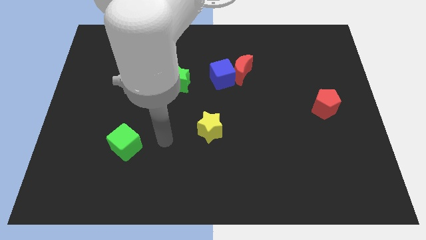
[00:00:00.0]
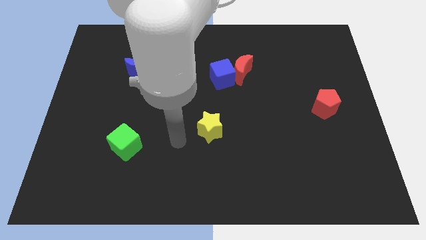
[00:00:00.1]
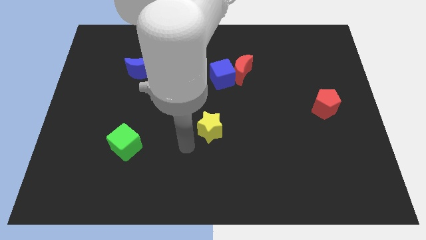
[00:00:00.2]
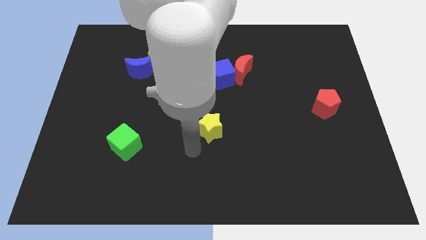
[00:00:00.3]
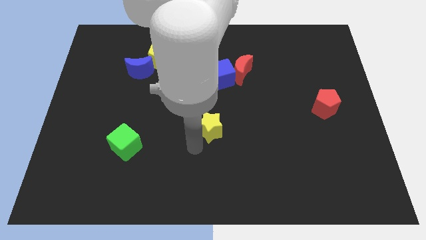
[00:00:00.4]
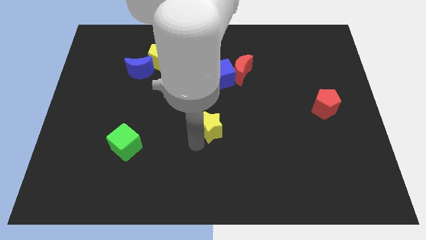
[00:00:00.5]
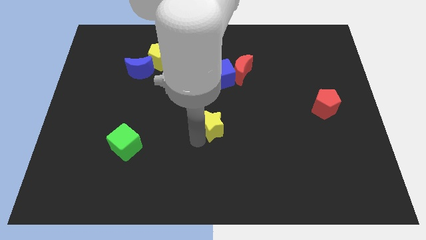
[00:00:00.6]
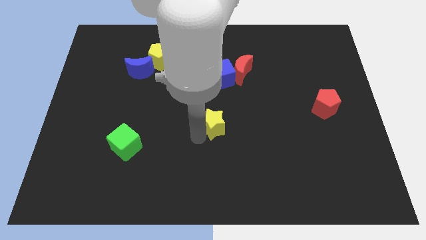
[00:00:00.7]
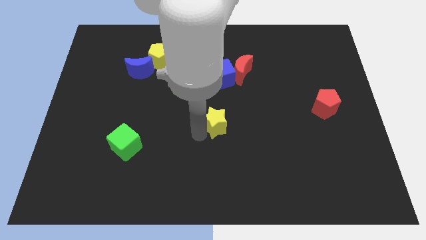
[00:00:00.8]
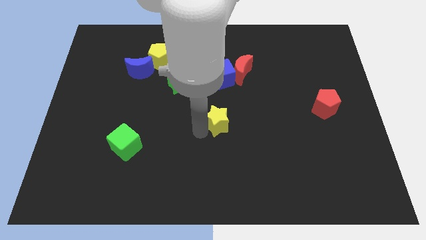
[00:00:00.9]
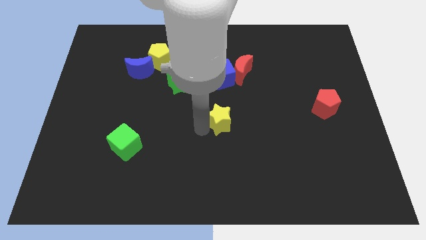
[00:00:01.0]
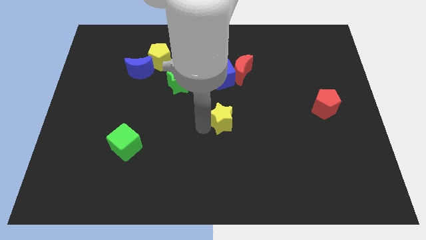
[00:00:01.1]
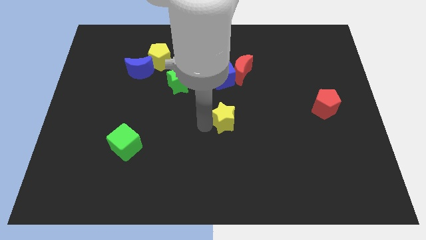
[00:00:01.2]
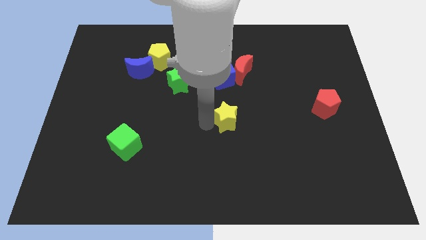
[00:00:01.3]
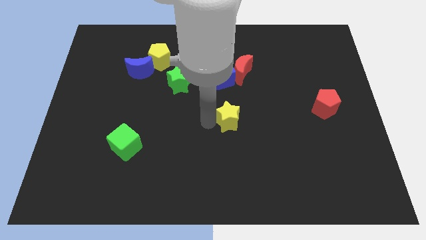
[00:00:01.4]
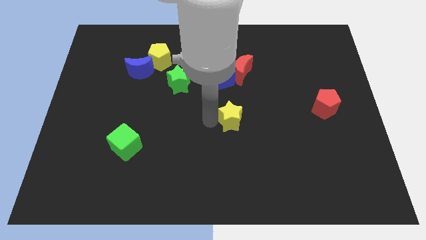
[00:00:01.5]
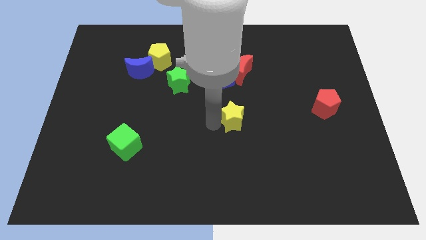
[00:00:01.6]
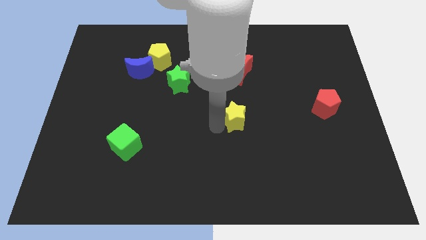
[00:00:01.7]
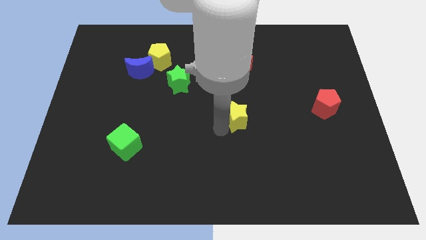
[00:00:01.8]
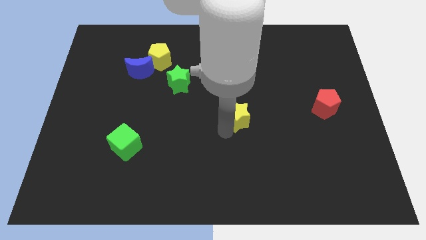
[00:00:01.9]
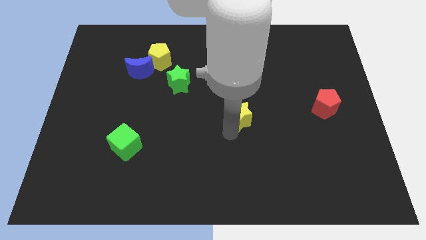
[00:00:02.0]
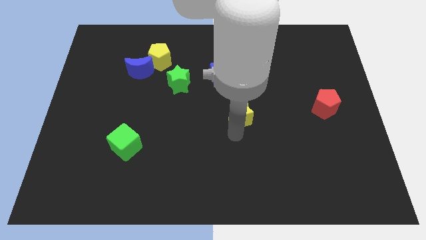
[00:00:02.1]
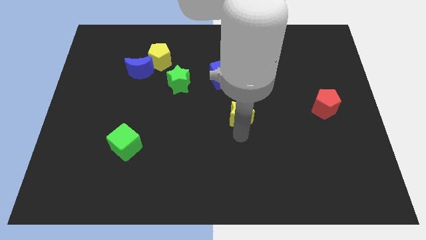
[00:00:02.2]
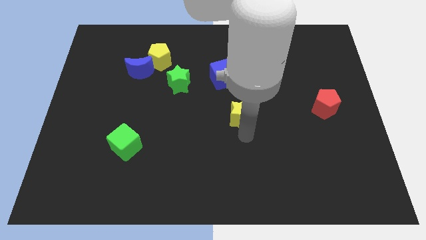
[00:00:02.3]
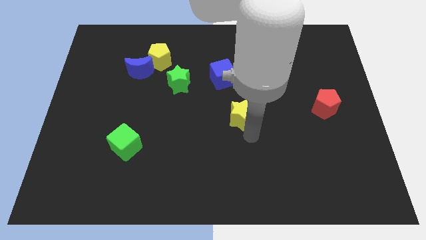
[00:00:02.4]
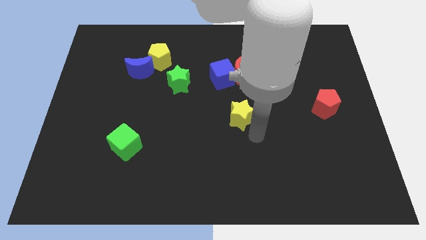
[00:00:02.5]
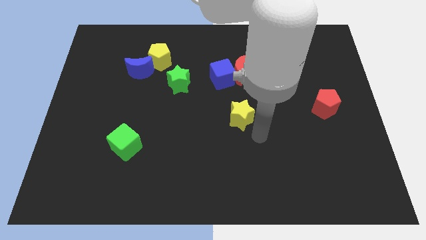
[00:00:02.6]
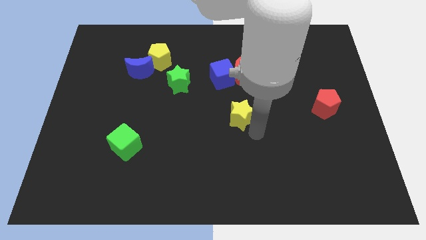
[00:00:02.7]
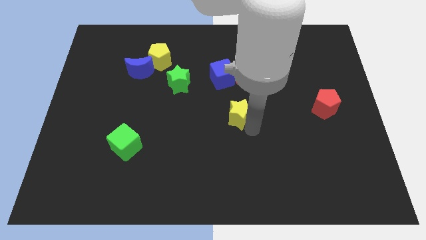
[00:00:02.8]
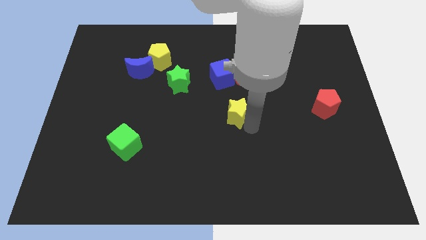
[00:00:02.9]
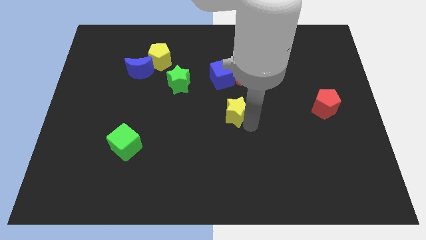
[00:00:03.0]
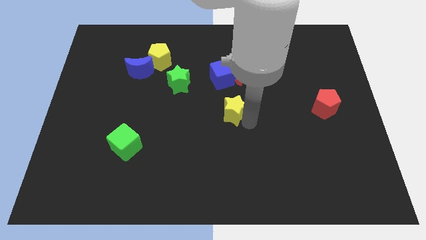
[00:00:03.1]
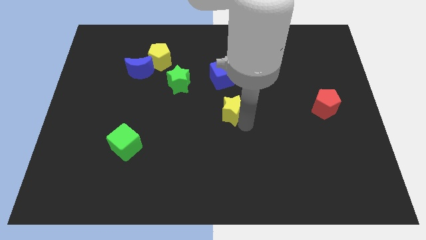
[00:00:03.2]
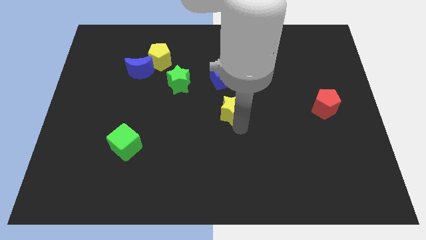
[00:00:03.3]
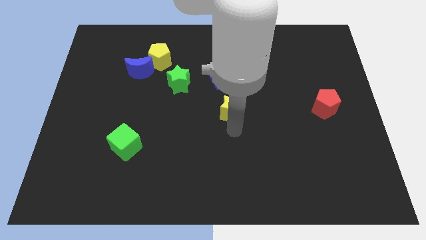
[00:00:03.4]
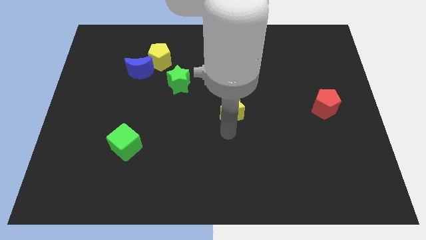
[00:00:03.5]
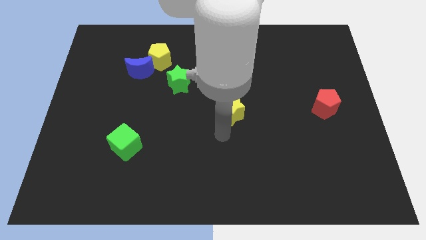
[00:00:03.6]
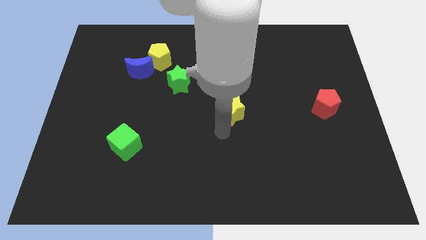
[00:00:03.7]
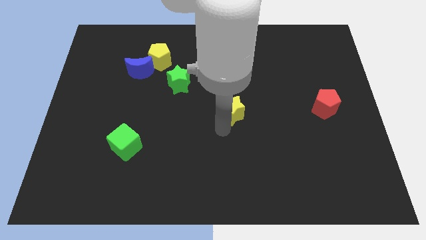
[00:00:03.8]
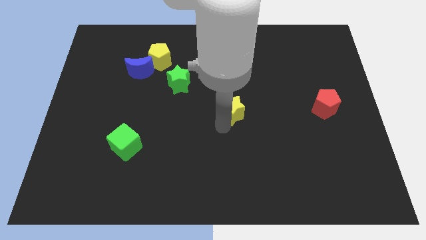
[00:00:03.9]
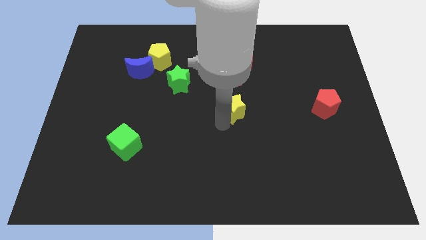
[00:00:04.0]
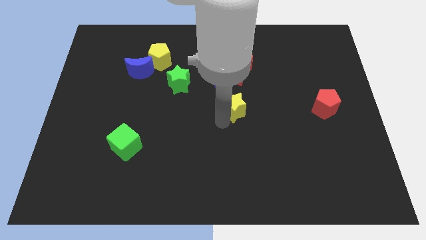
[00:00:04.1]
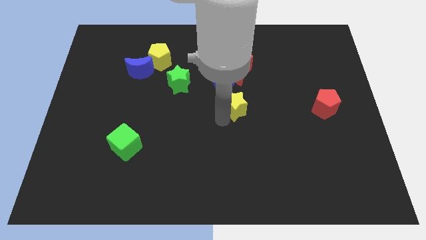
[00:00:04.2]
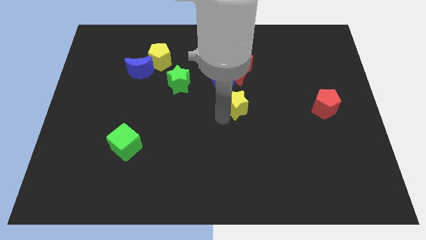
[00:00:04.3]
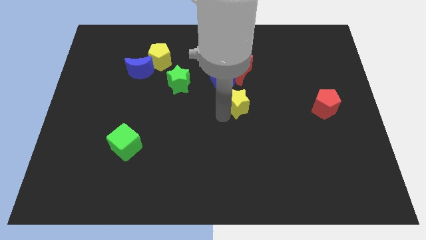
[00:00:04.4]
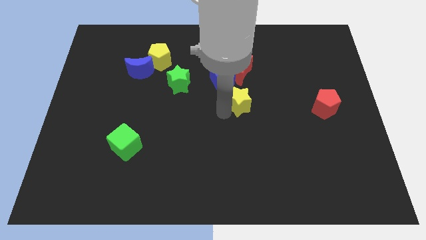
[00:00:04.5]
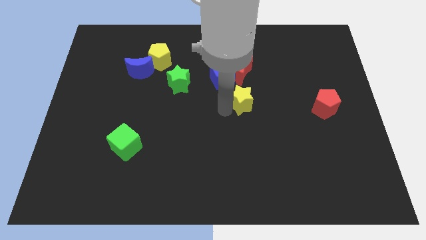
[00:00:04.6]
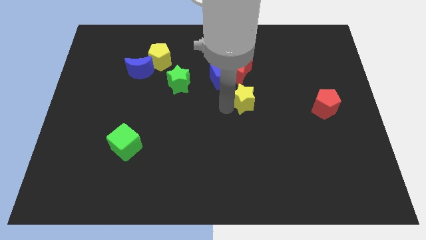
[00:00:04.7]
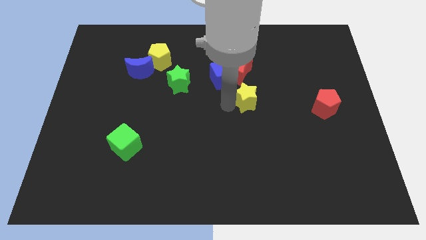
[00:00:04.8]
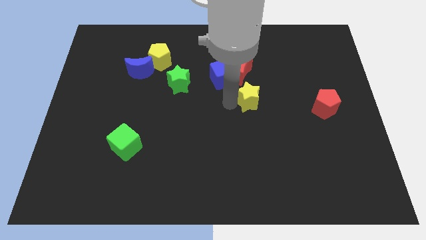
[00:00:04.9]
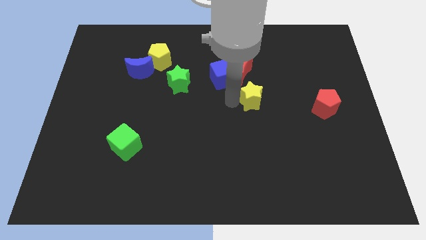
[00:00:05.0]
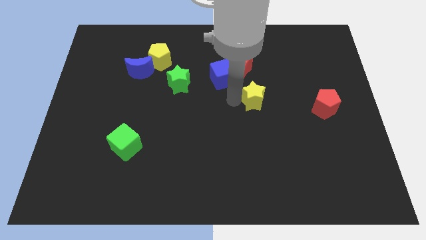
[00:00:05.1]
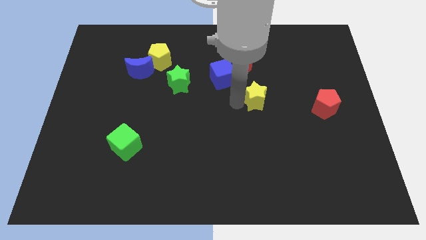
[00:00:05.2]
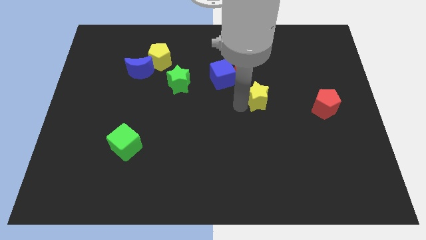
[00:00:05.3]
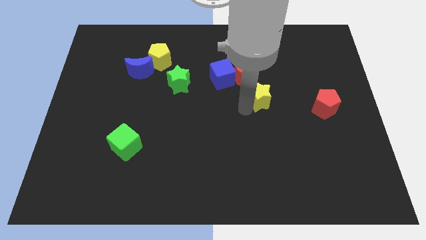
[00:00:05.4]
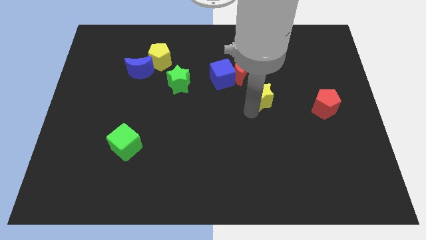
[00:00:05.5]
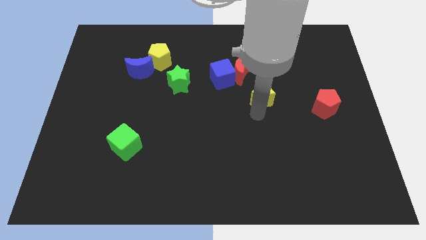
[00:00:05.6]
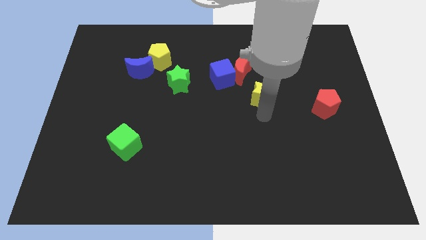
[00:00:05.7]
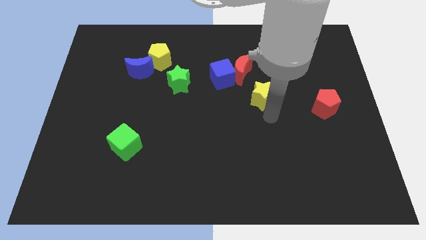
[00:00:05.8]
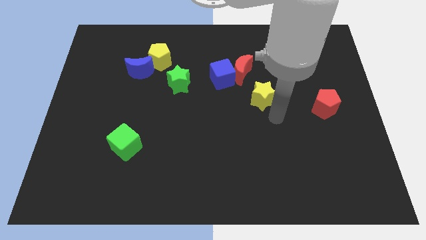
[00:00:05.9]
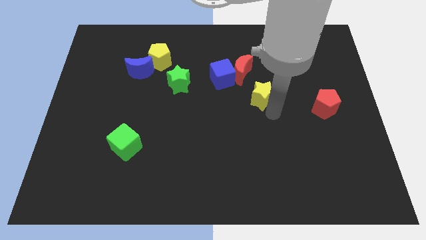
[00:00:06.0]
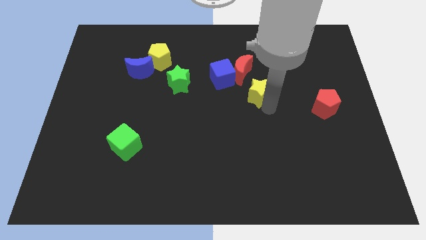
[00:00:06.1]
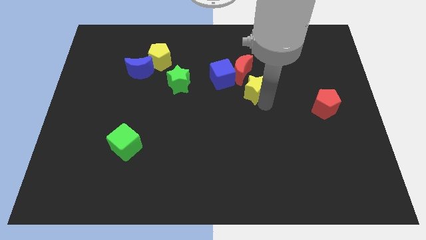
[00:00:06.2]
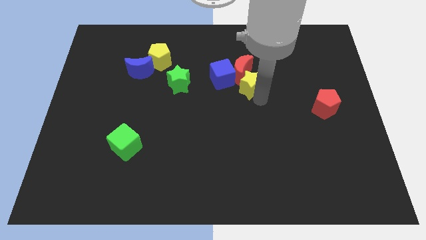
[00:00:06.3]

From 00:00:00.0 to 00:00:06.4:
put the yellow star towards the red moon
